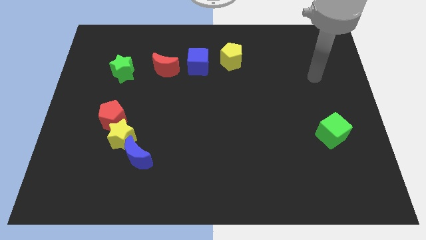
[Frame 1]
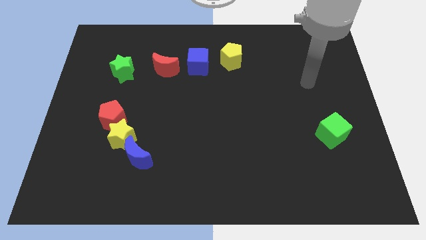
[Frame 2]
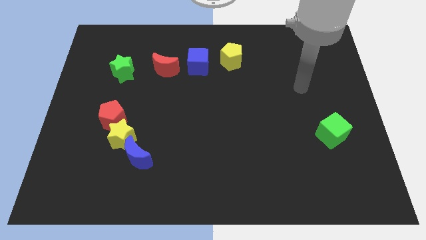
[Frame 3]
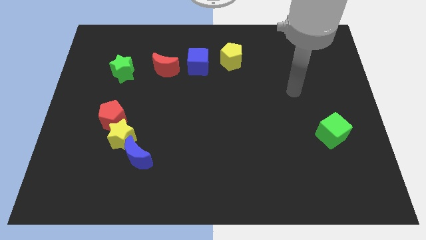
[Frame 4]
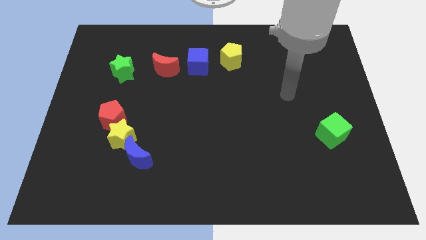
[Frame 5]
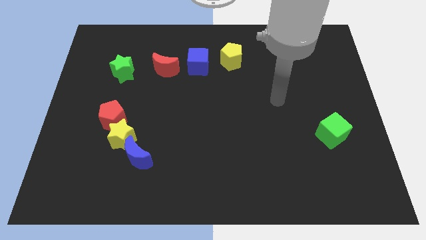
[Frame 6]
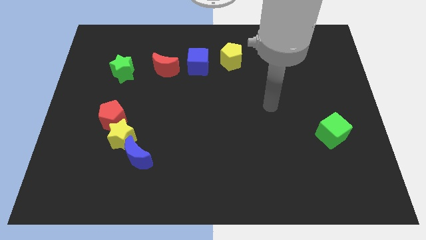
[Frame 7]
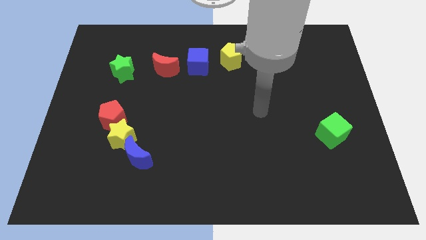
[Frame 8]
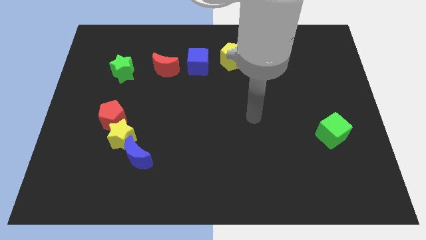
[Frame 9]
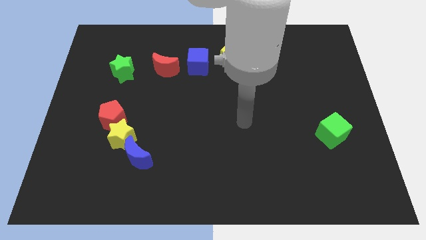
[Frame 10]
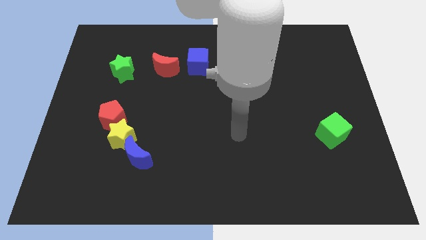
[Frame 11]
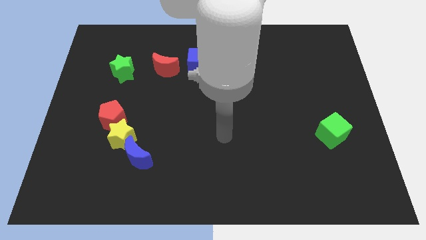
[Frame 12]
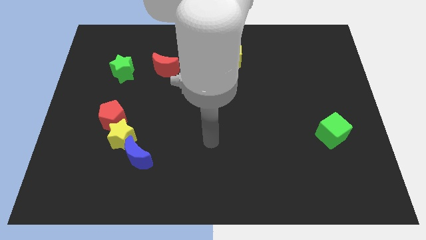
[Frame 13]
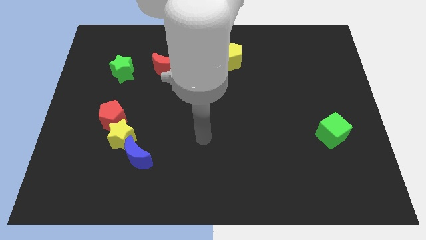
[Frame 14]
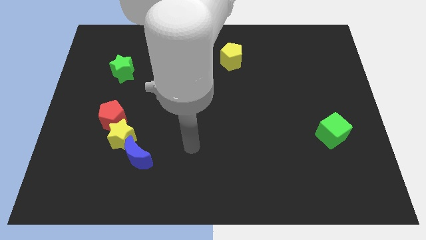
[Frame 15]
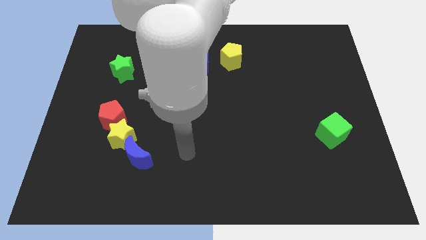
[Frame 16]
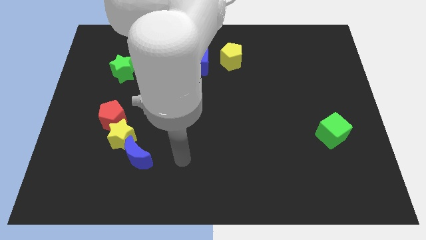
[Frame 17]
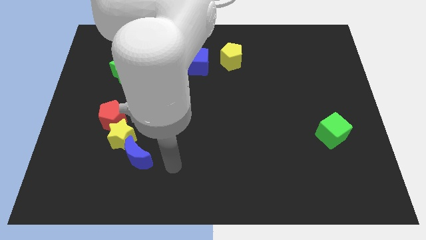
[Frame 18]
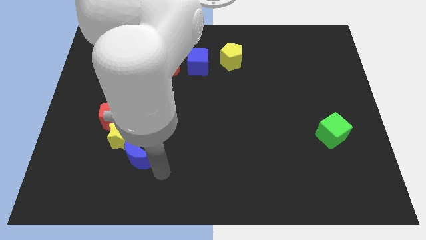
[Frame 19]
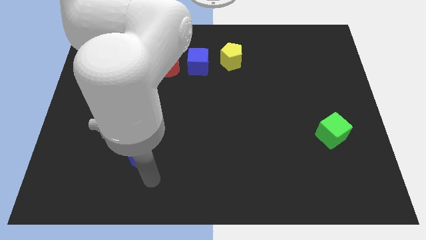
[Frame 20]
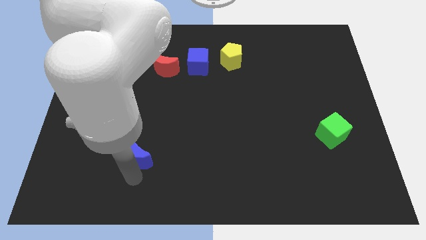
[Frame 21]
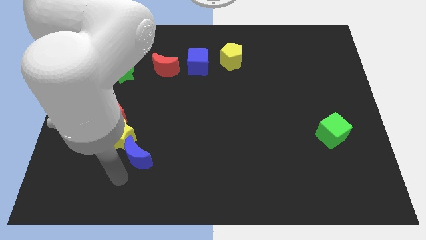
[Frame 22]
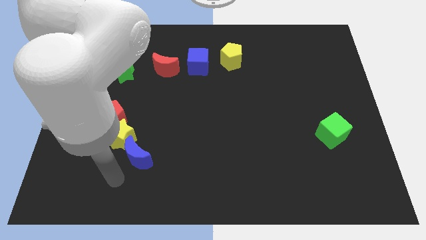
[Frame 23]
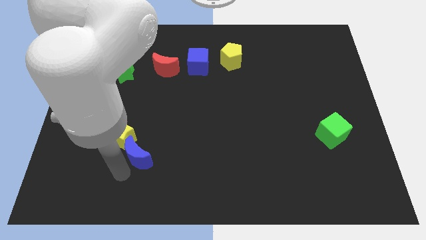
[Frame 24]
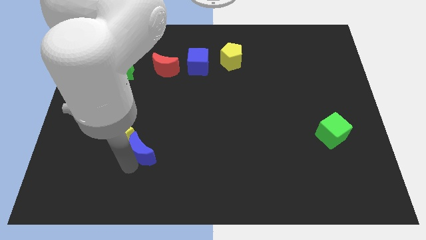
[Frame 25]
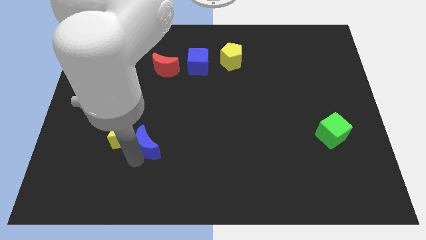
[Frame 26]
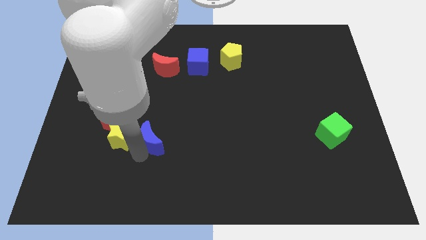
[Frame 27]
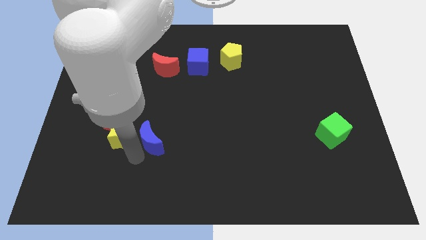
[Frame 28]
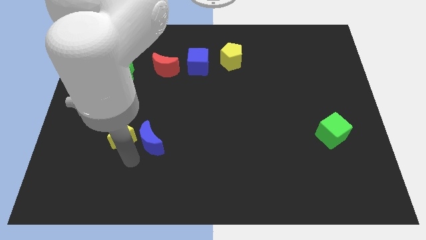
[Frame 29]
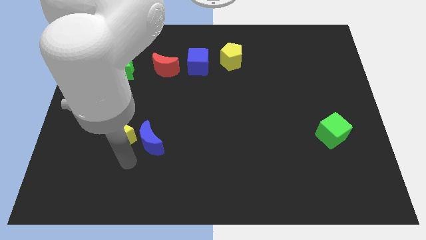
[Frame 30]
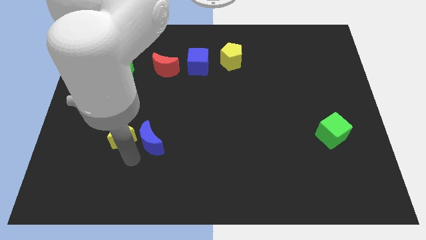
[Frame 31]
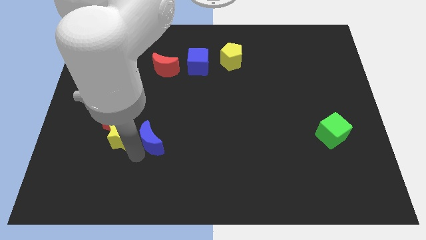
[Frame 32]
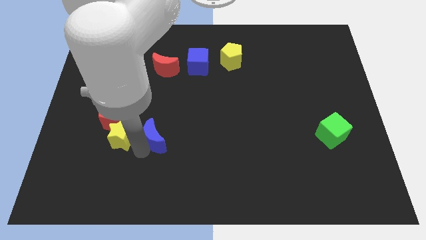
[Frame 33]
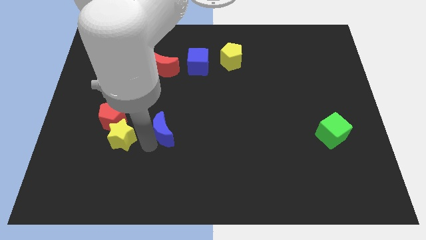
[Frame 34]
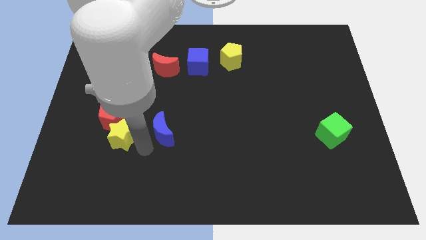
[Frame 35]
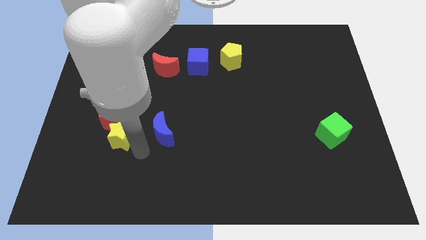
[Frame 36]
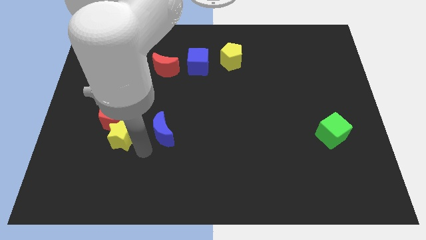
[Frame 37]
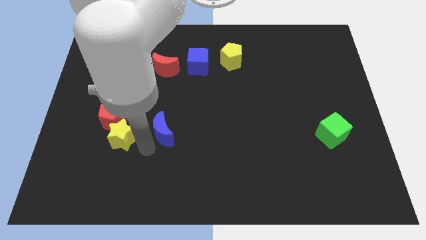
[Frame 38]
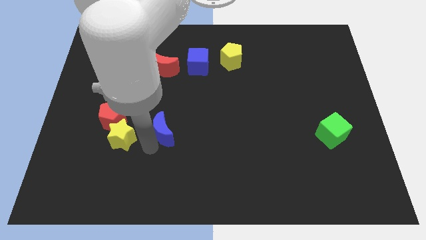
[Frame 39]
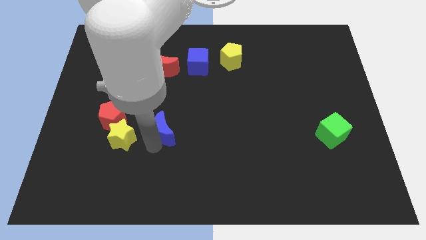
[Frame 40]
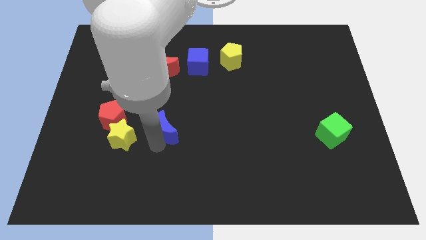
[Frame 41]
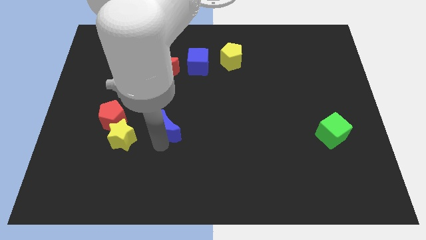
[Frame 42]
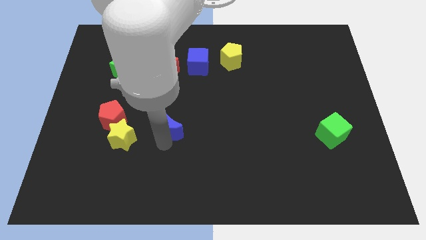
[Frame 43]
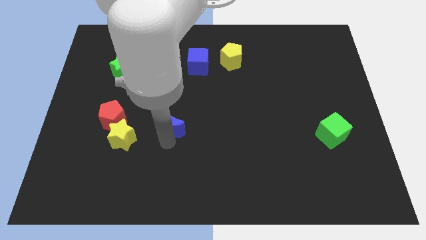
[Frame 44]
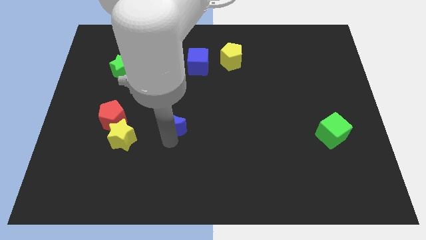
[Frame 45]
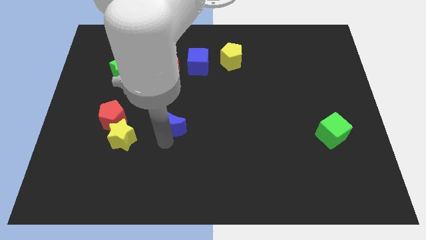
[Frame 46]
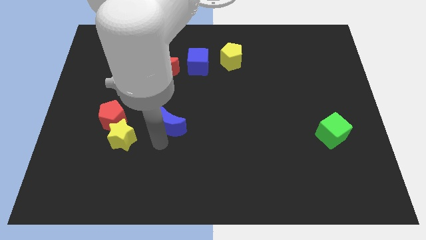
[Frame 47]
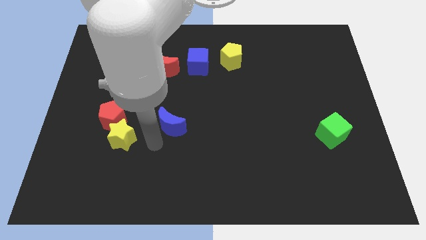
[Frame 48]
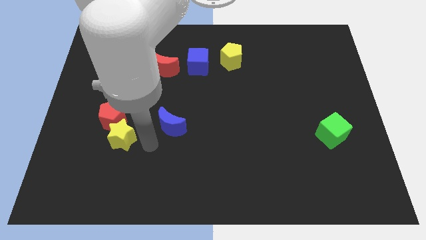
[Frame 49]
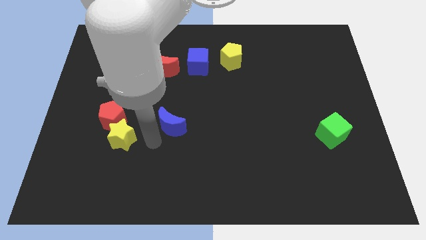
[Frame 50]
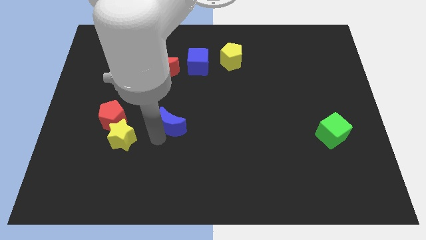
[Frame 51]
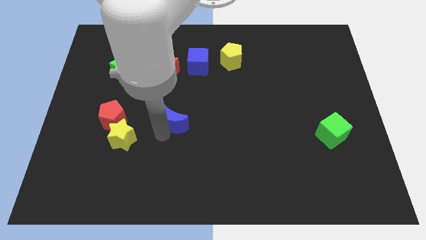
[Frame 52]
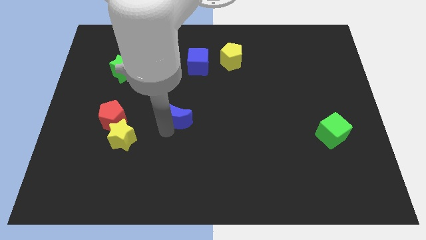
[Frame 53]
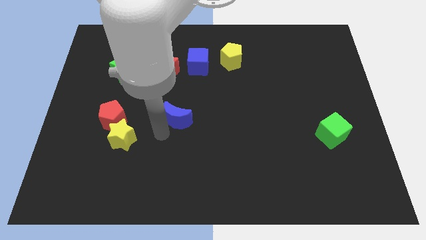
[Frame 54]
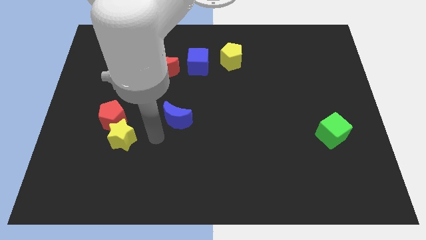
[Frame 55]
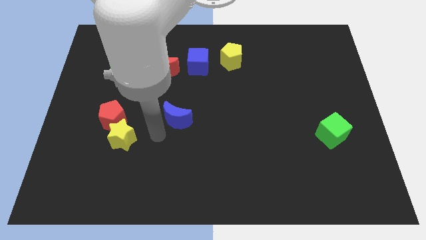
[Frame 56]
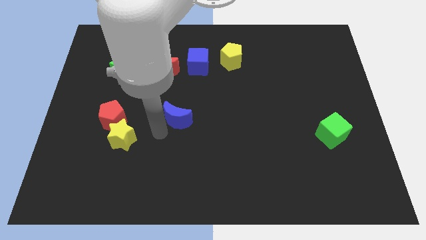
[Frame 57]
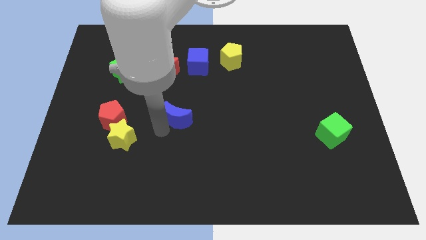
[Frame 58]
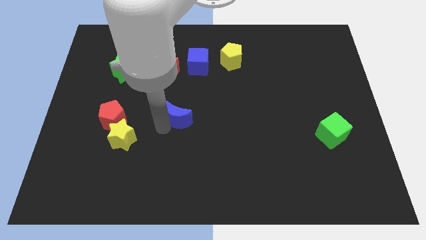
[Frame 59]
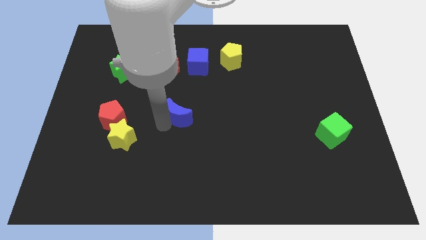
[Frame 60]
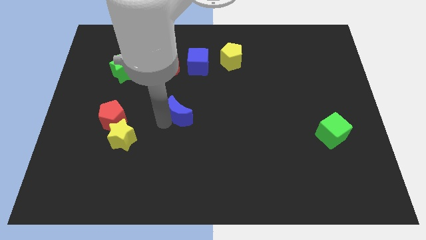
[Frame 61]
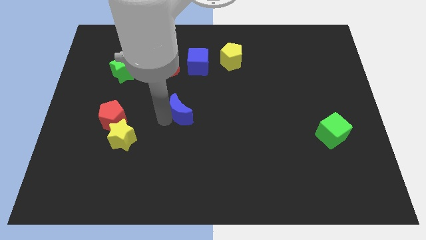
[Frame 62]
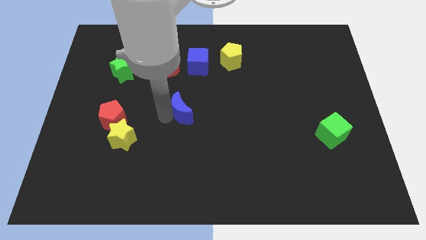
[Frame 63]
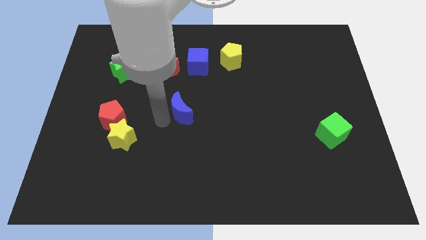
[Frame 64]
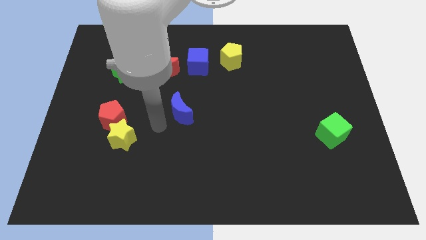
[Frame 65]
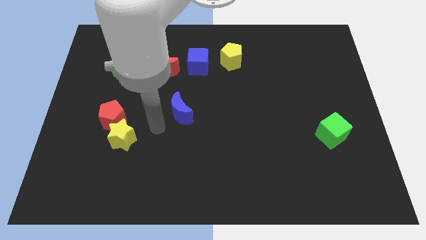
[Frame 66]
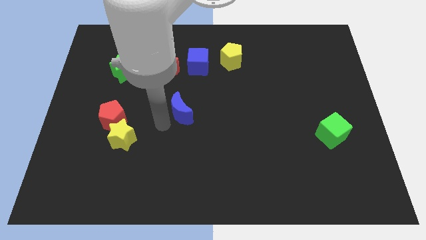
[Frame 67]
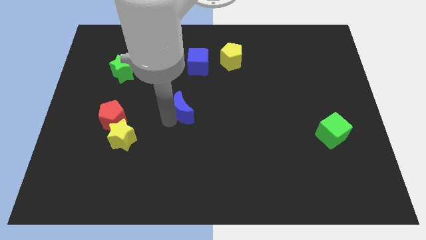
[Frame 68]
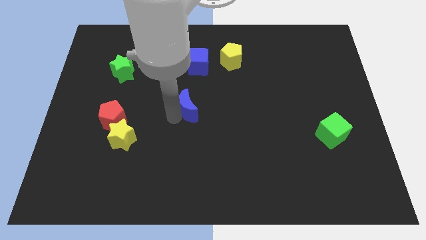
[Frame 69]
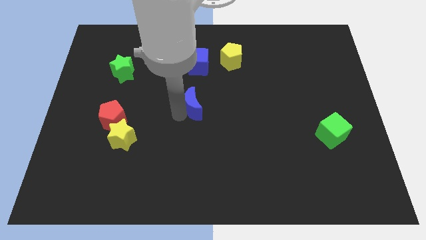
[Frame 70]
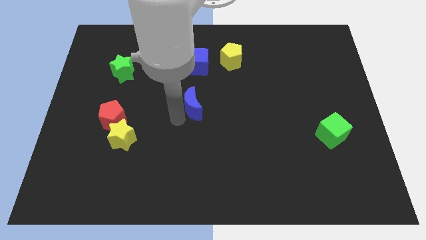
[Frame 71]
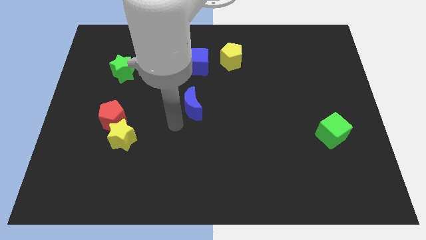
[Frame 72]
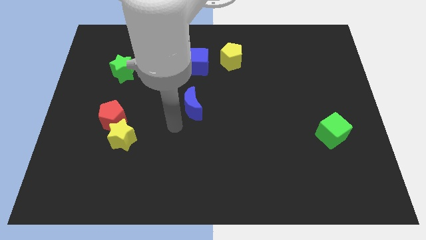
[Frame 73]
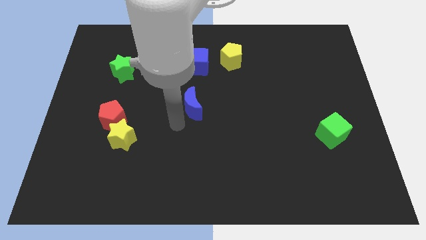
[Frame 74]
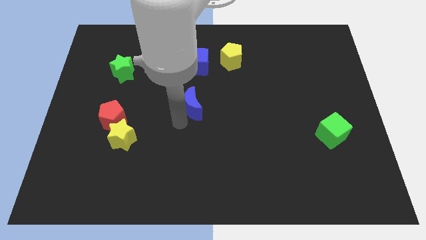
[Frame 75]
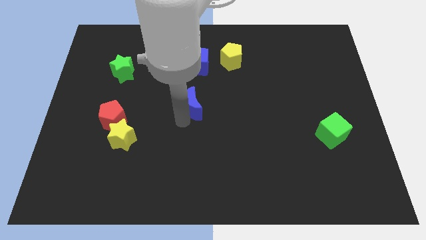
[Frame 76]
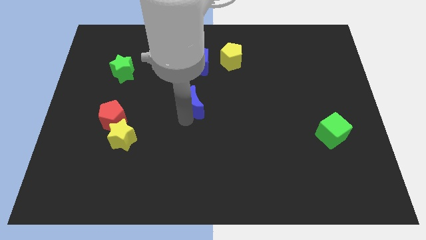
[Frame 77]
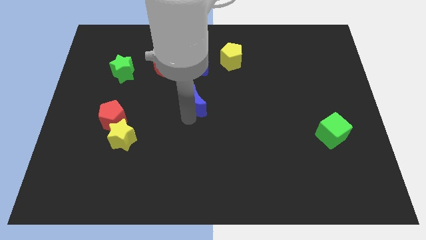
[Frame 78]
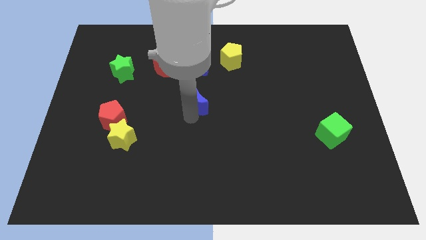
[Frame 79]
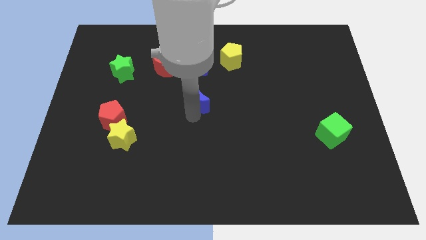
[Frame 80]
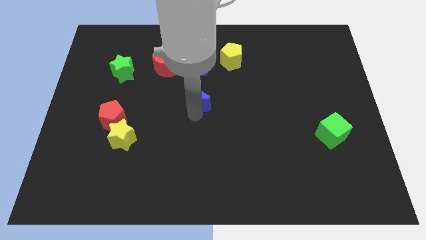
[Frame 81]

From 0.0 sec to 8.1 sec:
slide the blue moon upwards and right diagonally
